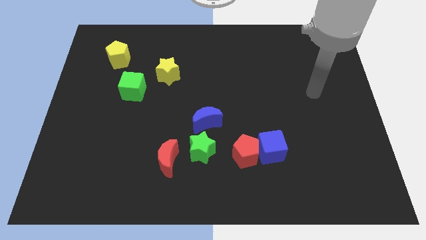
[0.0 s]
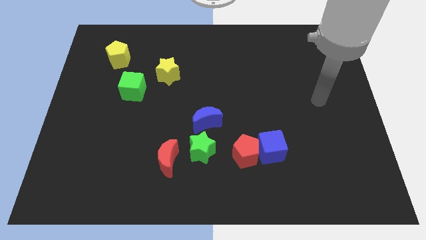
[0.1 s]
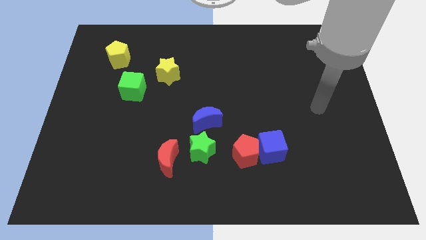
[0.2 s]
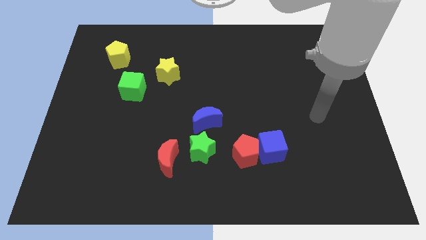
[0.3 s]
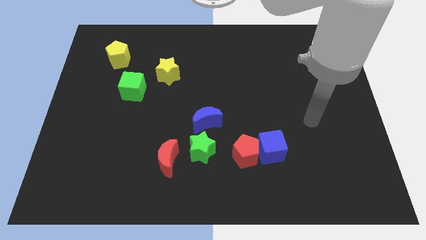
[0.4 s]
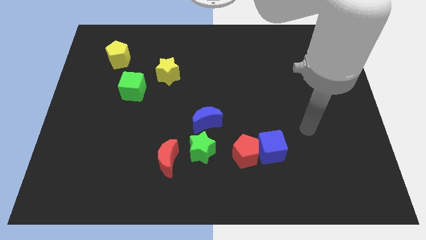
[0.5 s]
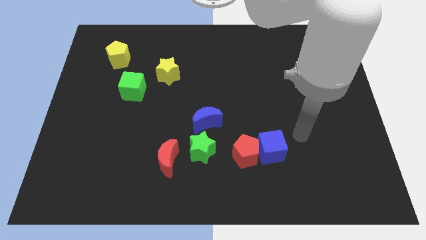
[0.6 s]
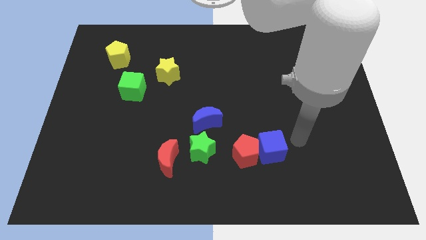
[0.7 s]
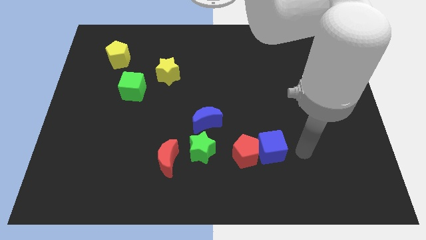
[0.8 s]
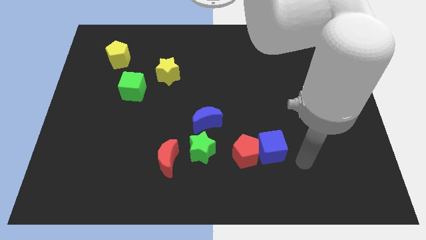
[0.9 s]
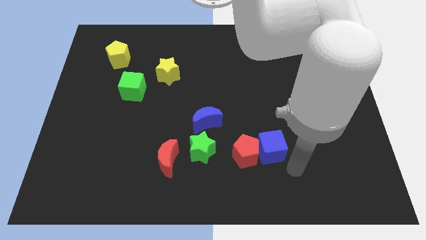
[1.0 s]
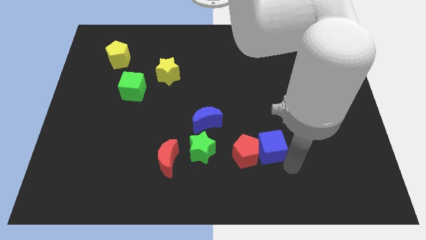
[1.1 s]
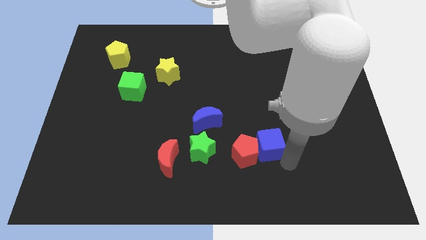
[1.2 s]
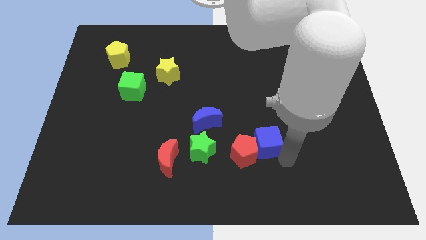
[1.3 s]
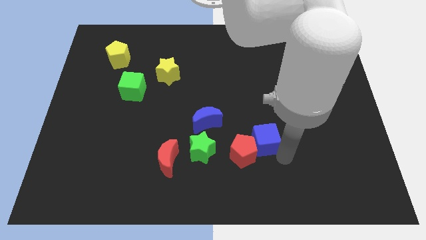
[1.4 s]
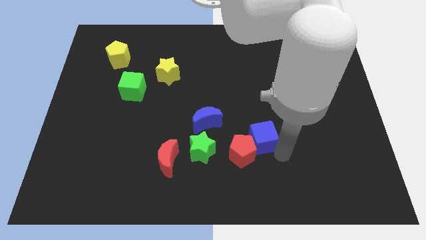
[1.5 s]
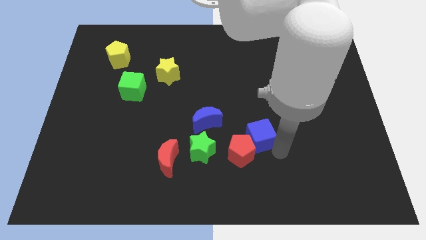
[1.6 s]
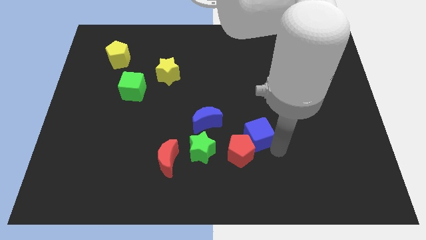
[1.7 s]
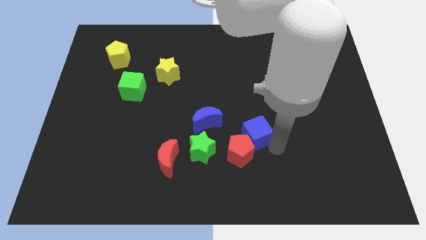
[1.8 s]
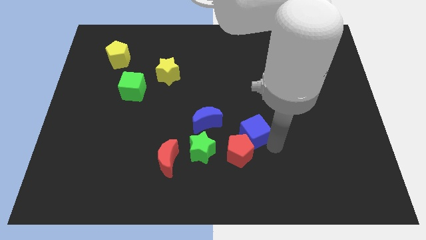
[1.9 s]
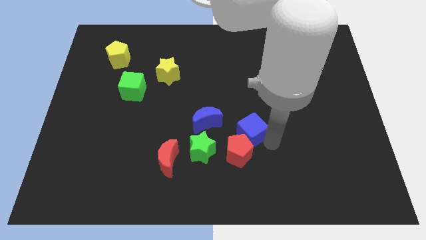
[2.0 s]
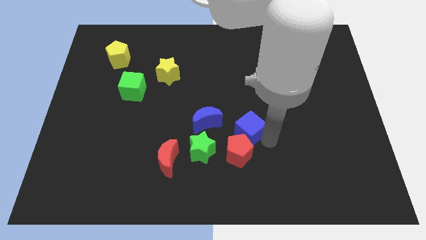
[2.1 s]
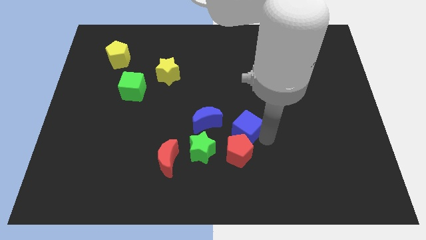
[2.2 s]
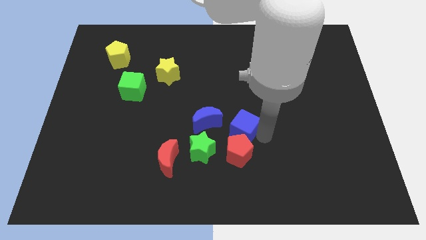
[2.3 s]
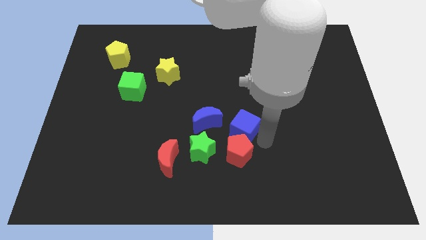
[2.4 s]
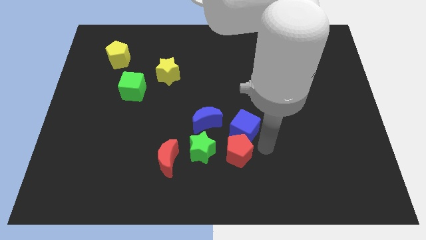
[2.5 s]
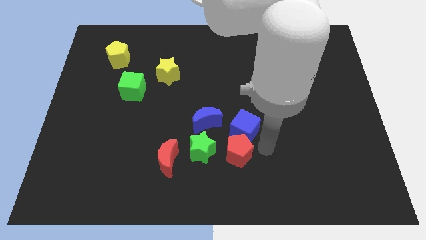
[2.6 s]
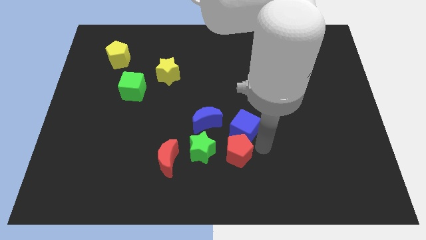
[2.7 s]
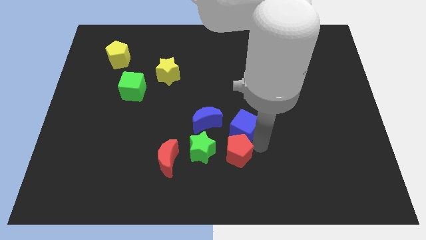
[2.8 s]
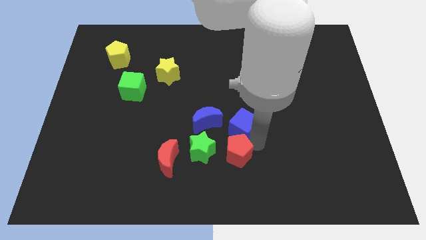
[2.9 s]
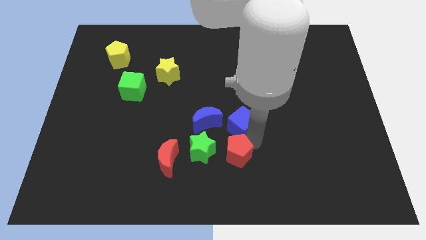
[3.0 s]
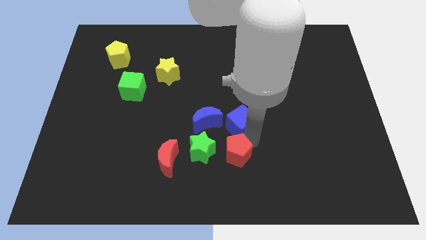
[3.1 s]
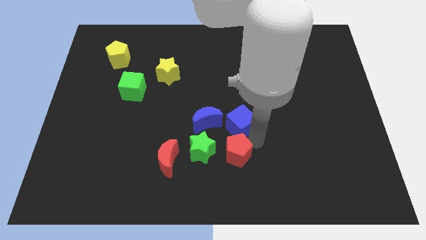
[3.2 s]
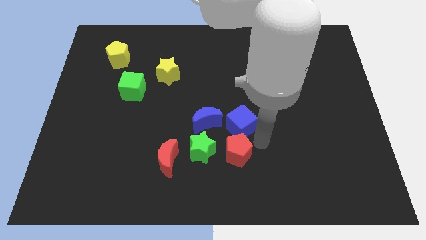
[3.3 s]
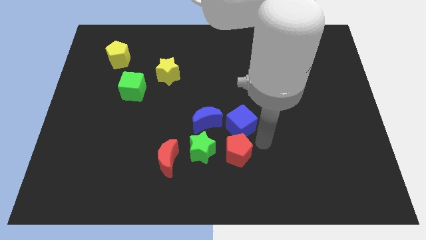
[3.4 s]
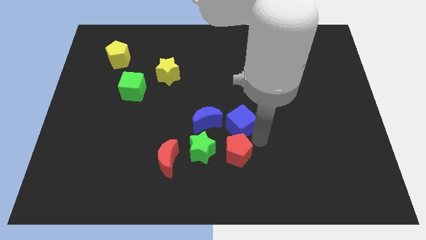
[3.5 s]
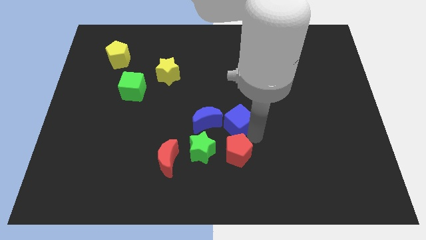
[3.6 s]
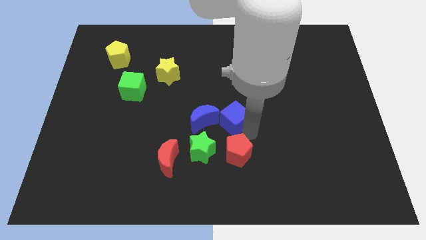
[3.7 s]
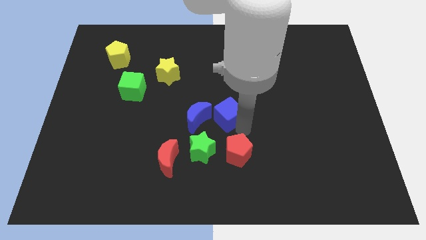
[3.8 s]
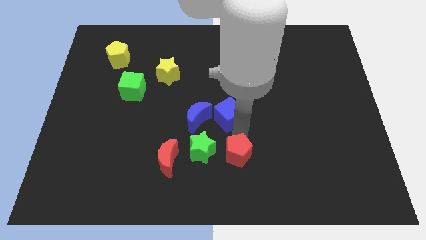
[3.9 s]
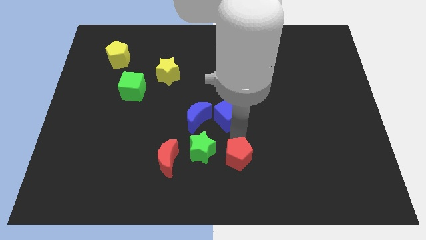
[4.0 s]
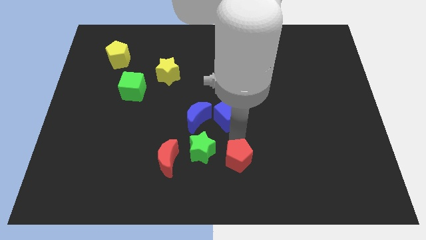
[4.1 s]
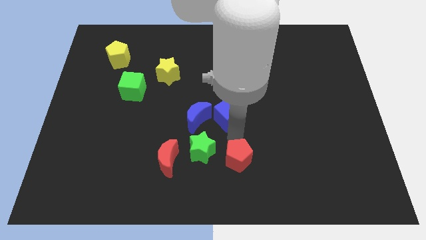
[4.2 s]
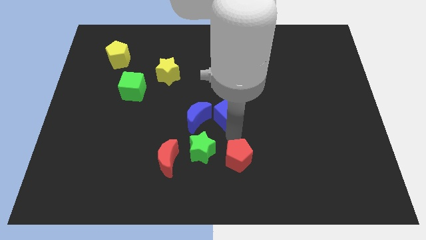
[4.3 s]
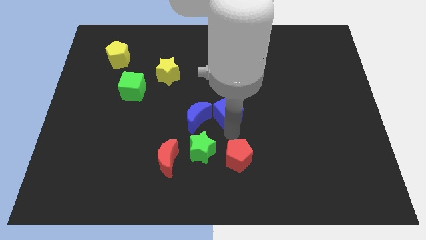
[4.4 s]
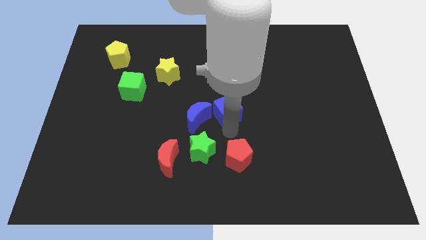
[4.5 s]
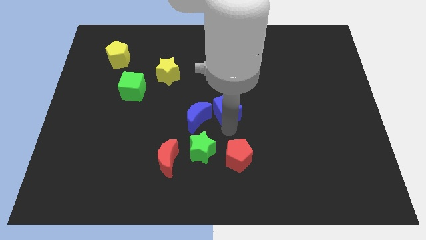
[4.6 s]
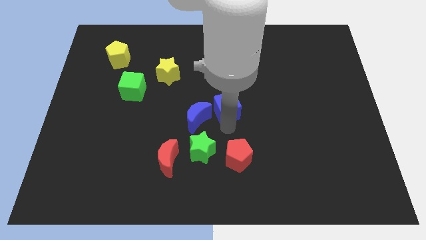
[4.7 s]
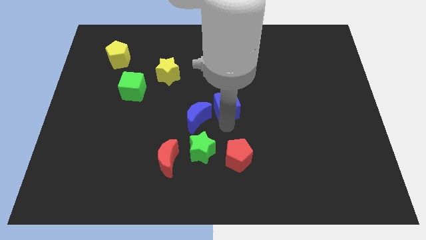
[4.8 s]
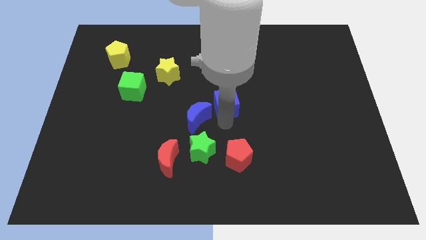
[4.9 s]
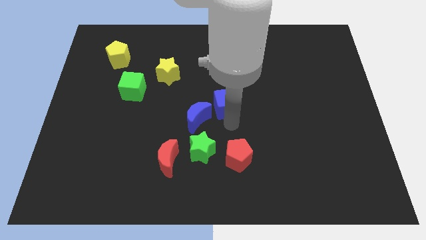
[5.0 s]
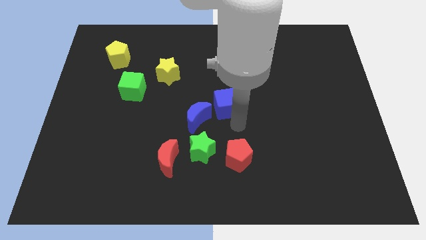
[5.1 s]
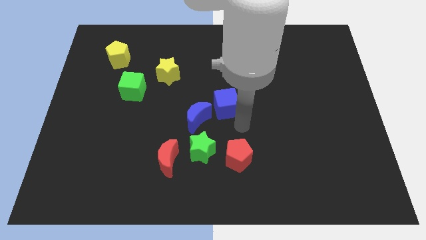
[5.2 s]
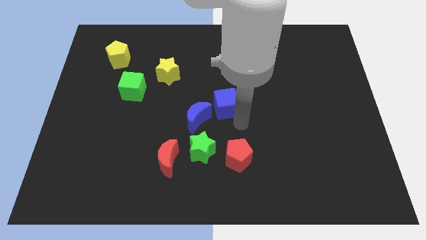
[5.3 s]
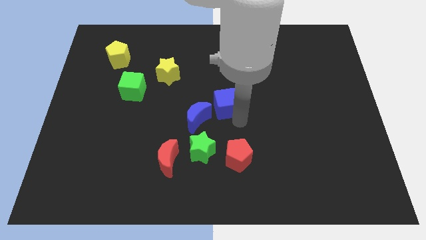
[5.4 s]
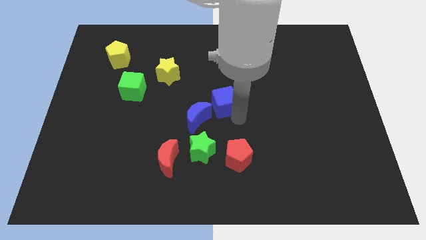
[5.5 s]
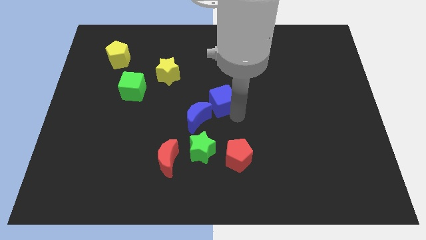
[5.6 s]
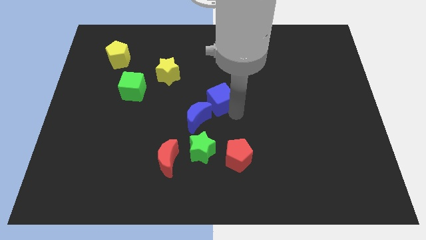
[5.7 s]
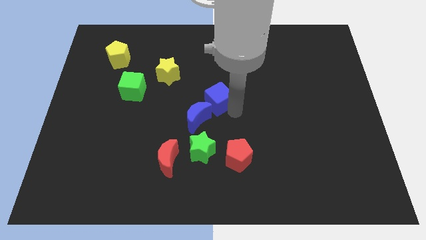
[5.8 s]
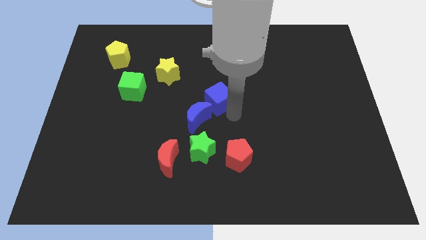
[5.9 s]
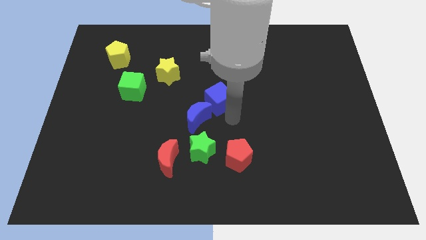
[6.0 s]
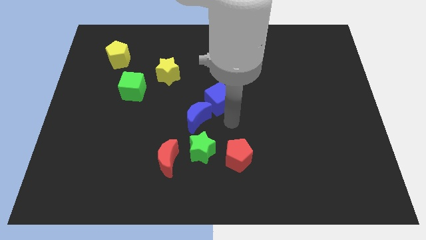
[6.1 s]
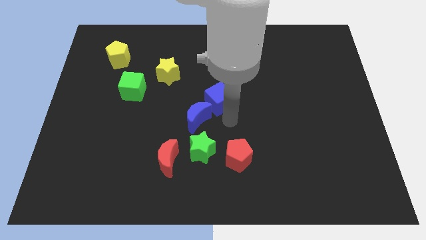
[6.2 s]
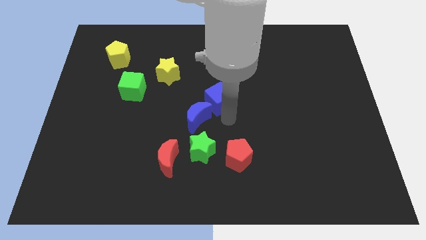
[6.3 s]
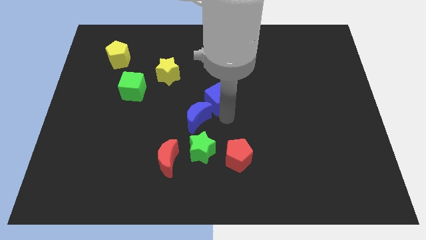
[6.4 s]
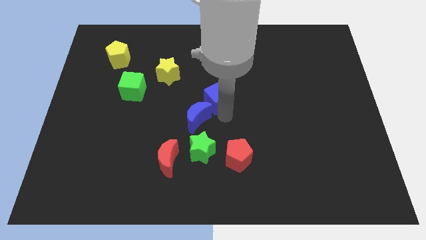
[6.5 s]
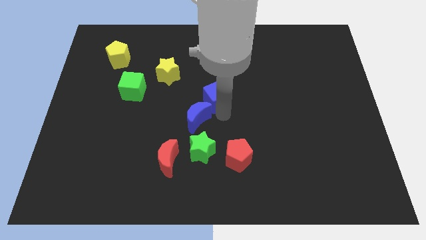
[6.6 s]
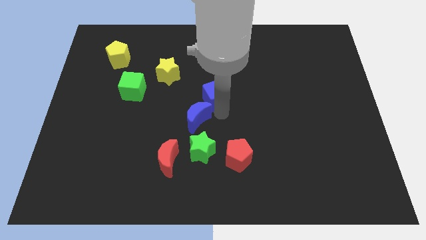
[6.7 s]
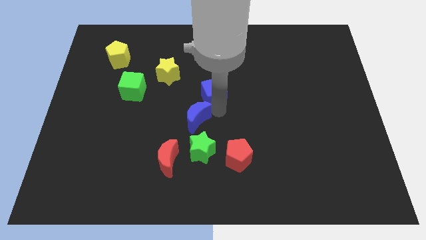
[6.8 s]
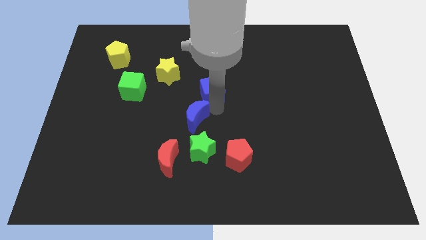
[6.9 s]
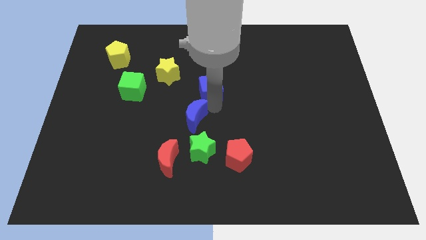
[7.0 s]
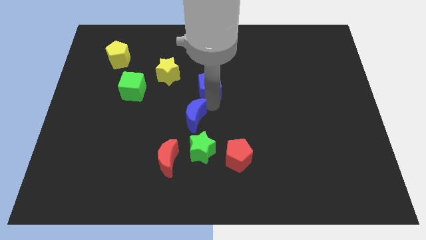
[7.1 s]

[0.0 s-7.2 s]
put the blue cube to the right side of the yellow star
